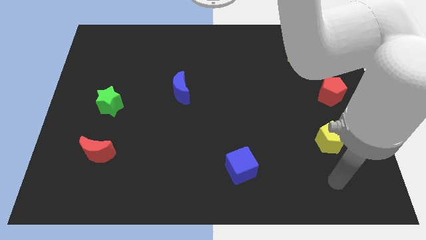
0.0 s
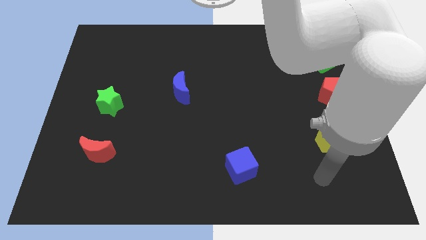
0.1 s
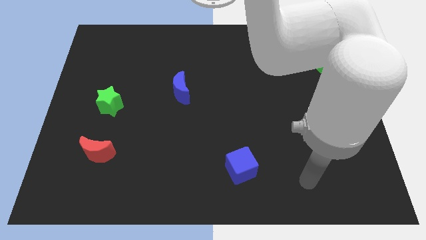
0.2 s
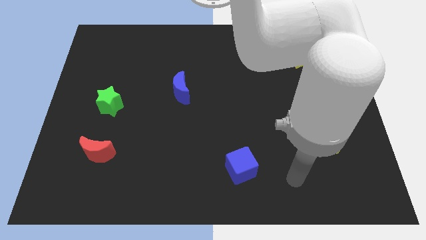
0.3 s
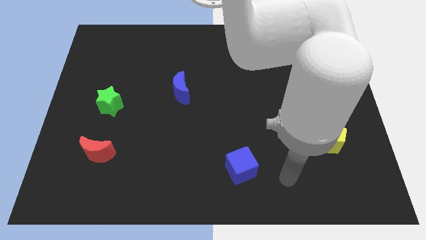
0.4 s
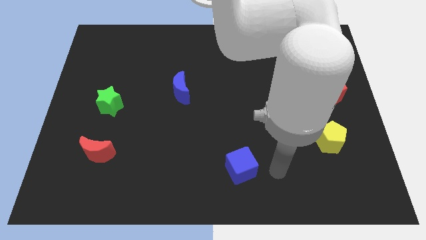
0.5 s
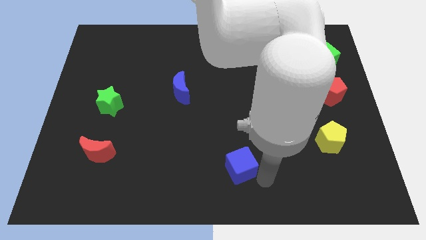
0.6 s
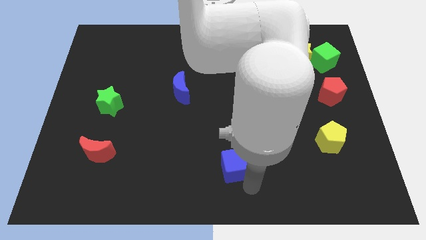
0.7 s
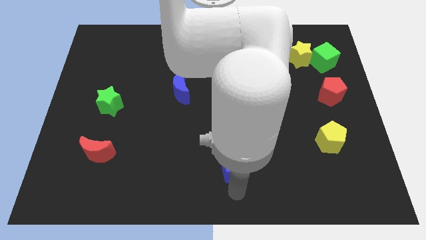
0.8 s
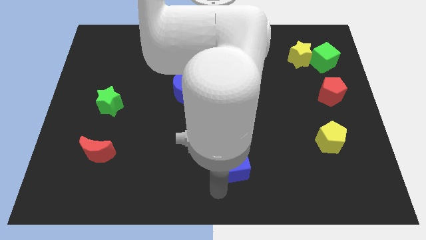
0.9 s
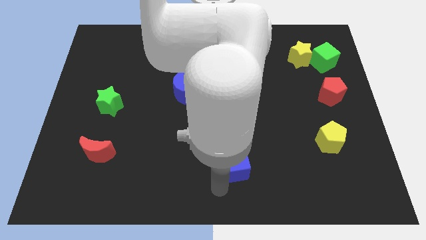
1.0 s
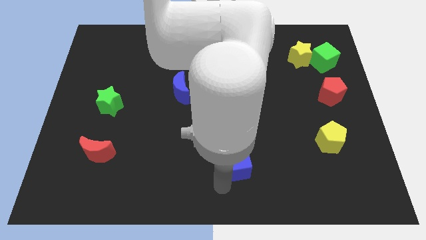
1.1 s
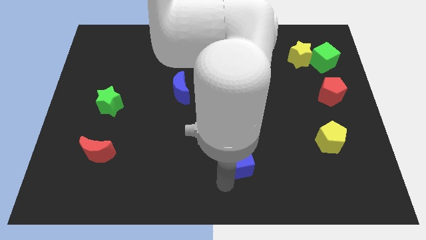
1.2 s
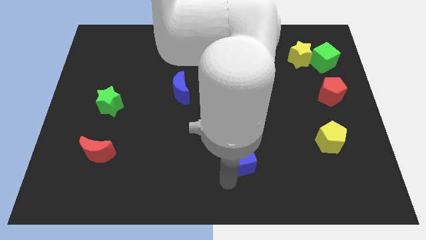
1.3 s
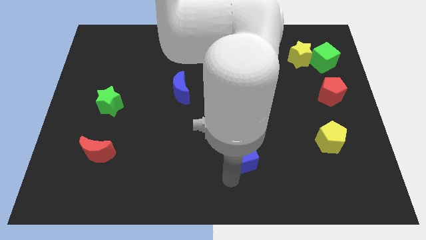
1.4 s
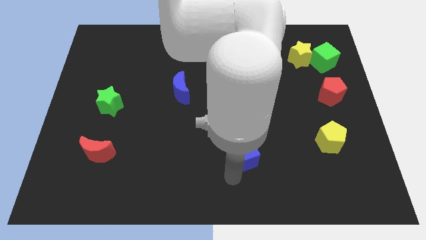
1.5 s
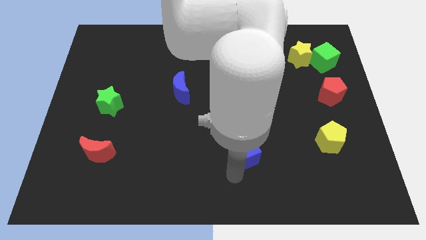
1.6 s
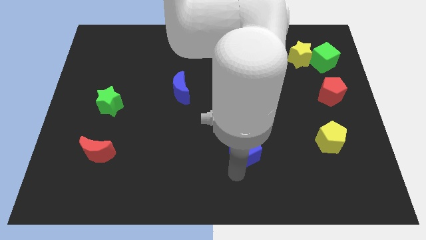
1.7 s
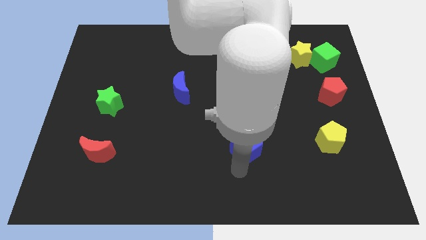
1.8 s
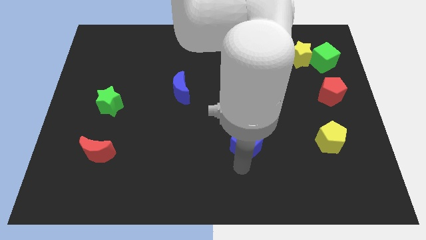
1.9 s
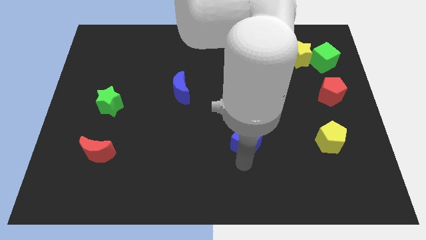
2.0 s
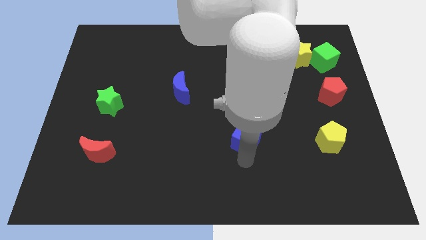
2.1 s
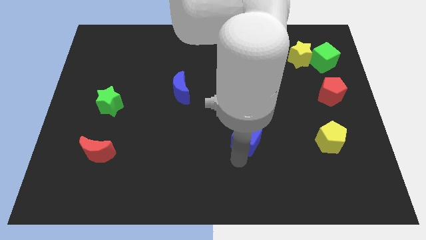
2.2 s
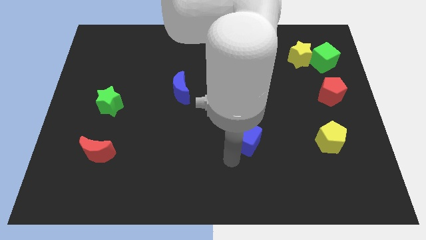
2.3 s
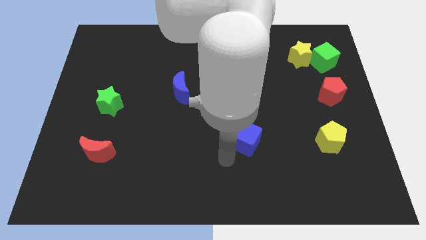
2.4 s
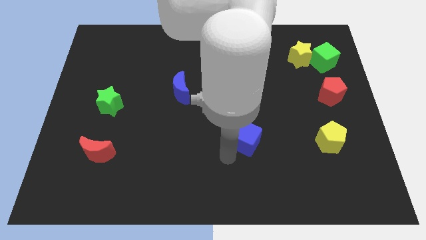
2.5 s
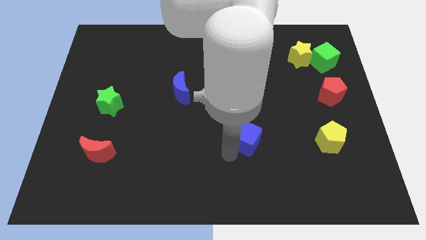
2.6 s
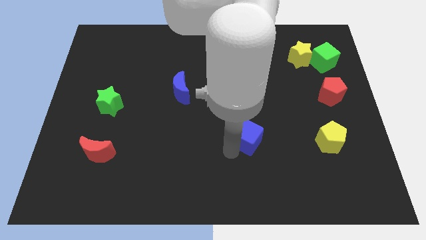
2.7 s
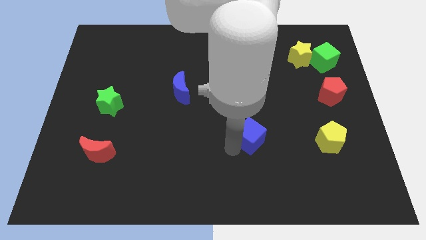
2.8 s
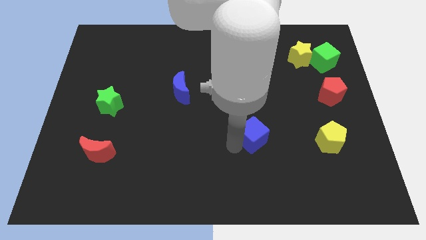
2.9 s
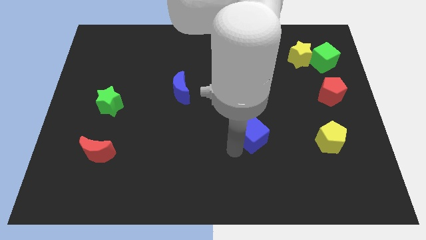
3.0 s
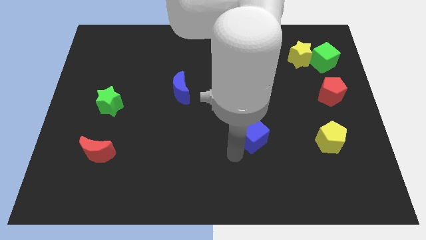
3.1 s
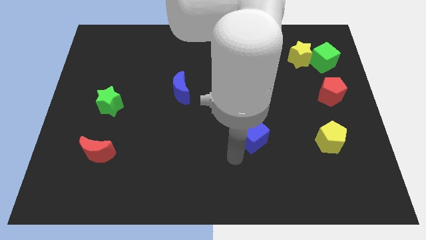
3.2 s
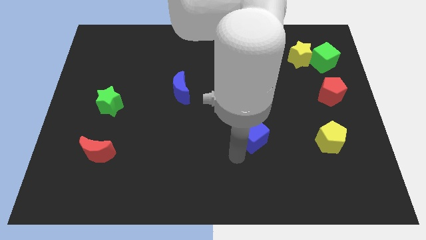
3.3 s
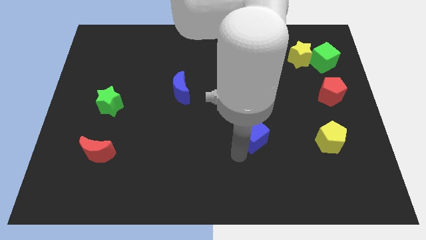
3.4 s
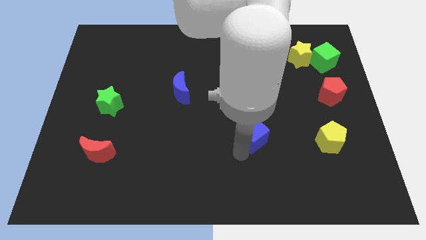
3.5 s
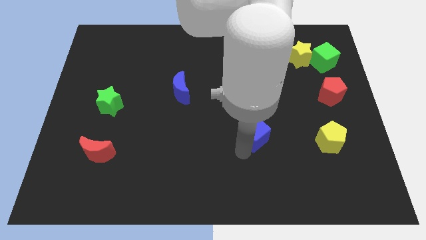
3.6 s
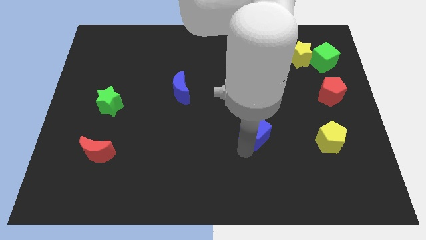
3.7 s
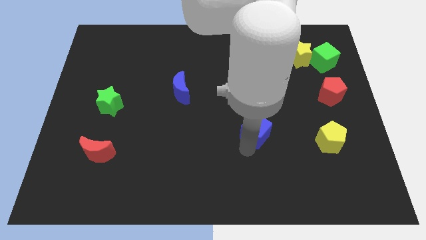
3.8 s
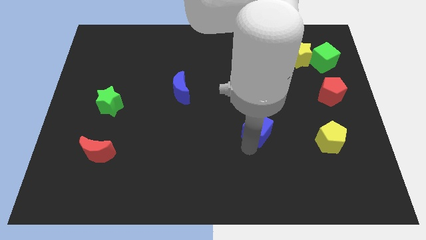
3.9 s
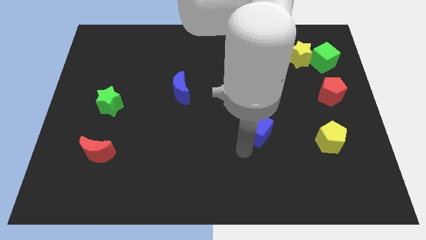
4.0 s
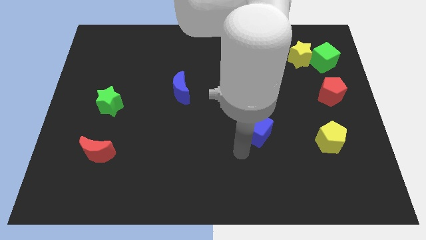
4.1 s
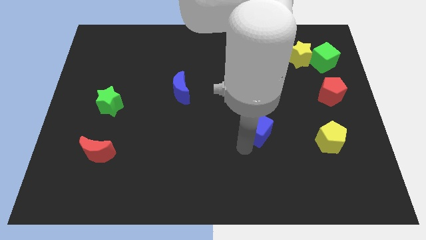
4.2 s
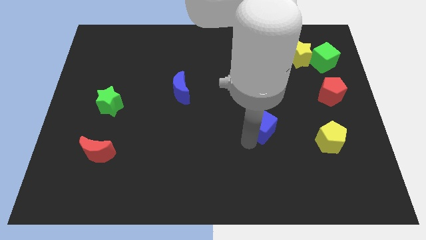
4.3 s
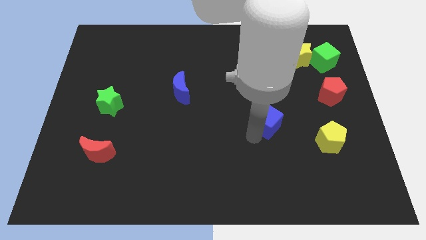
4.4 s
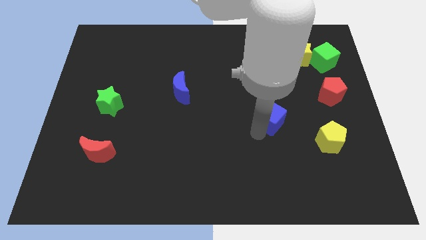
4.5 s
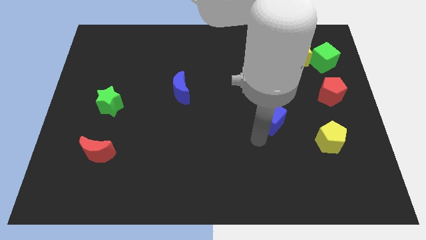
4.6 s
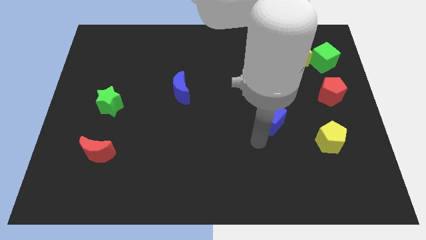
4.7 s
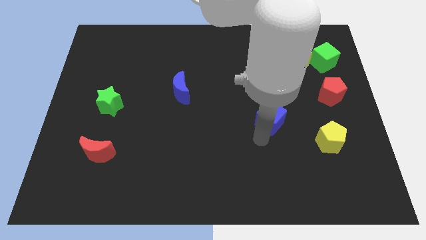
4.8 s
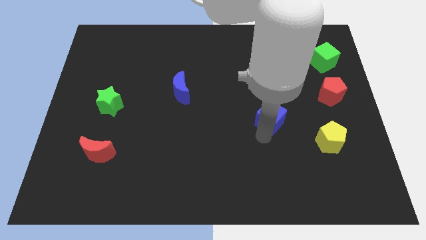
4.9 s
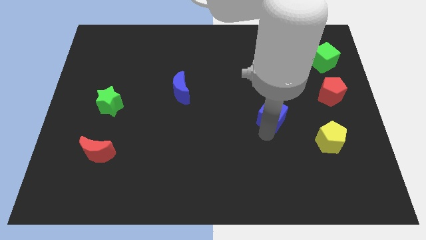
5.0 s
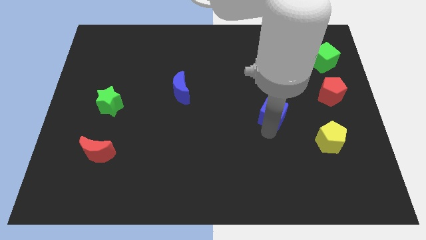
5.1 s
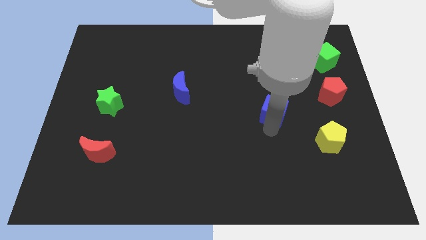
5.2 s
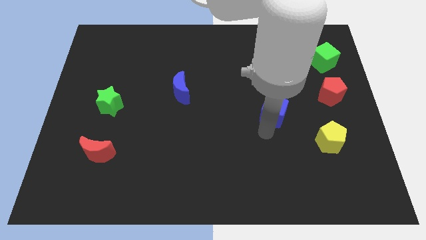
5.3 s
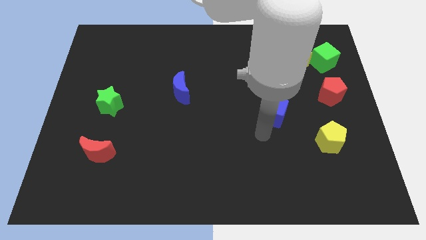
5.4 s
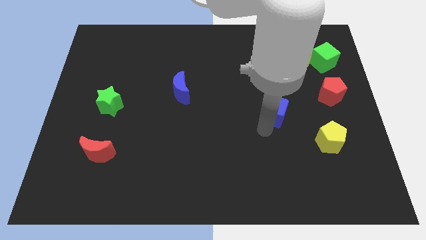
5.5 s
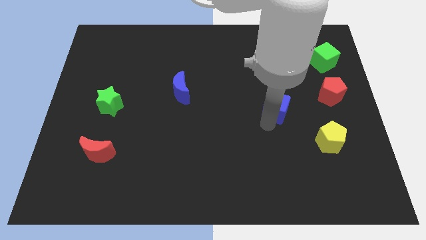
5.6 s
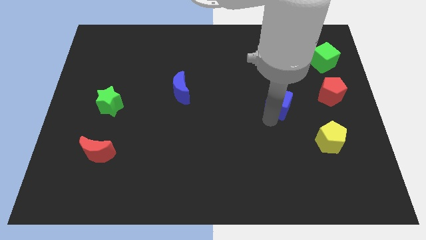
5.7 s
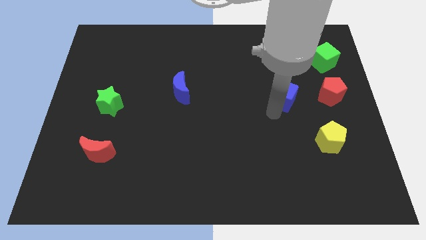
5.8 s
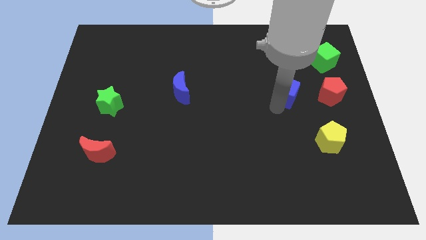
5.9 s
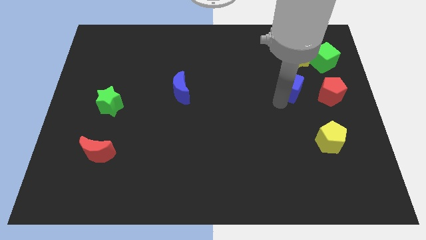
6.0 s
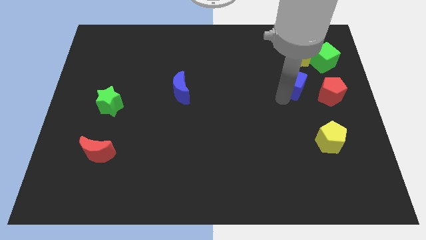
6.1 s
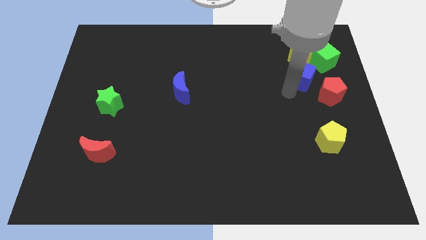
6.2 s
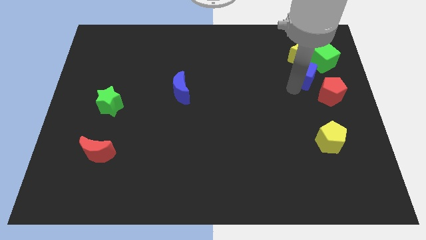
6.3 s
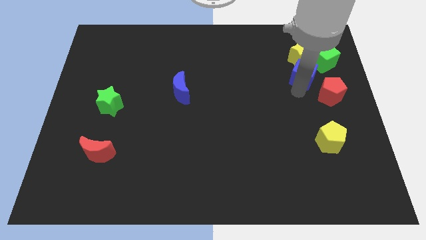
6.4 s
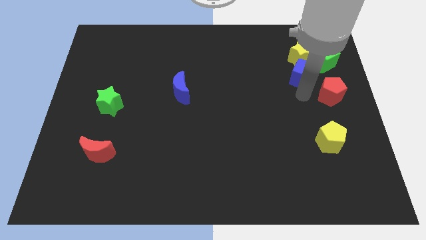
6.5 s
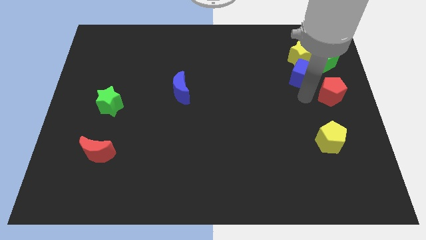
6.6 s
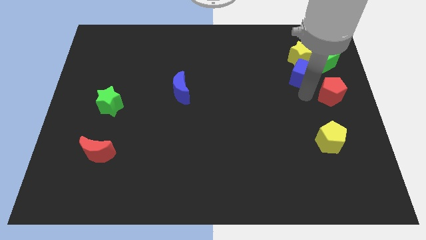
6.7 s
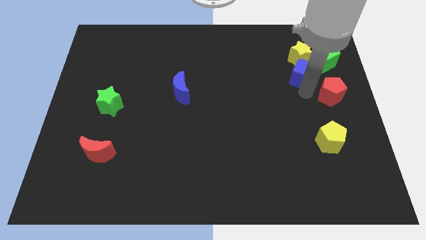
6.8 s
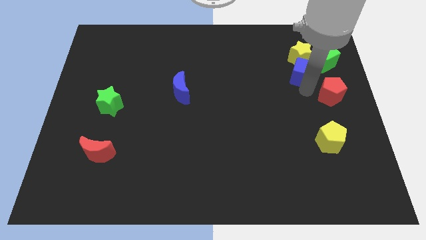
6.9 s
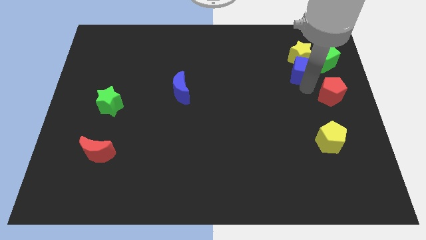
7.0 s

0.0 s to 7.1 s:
move the blue cube to the yellow star
